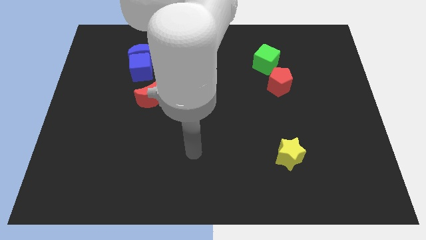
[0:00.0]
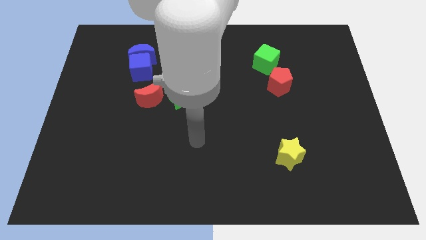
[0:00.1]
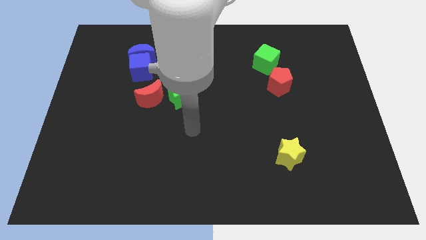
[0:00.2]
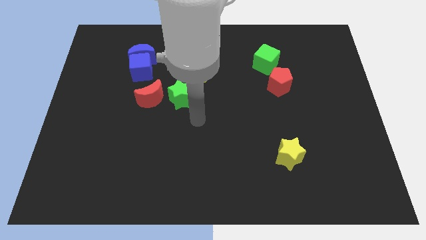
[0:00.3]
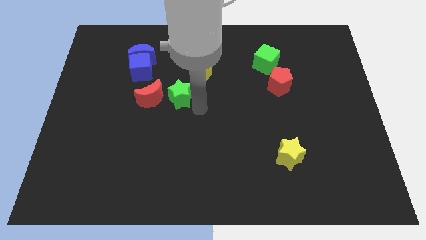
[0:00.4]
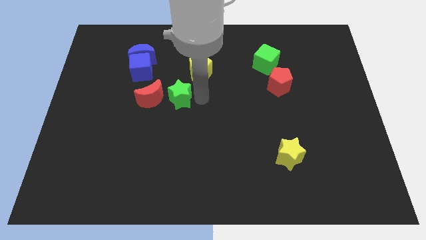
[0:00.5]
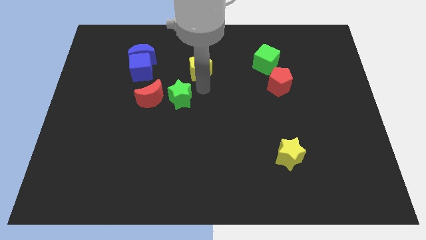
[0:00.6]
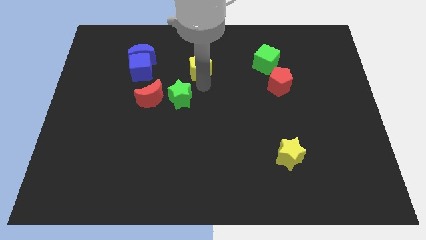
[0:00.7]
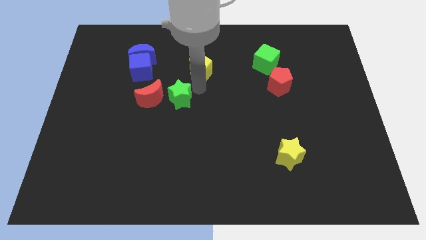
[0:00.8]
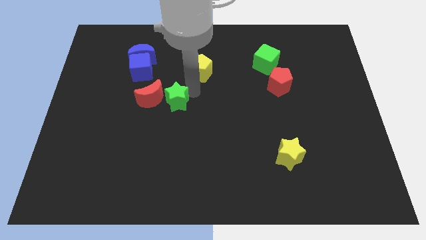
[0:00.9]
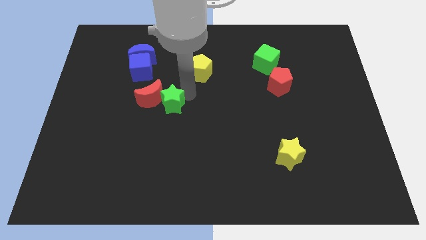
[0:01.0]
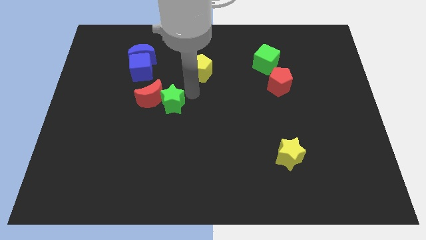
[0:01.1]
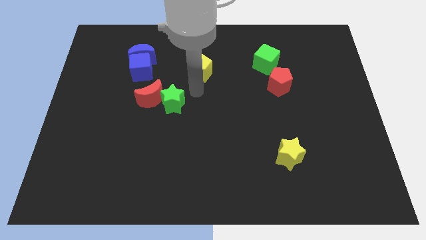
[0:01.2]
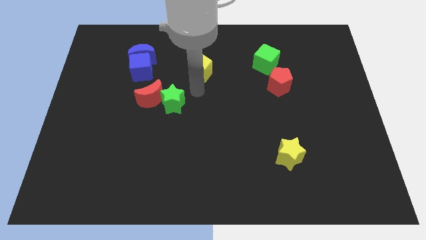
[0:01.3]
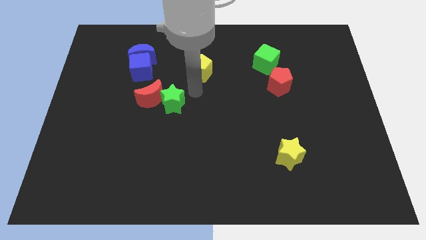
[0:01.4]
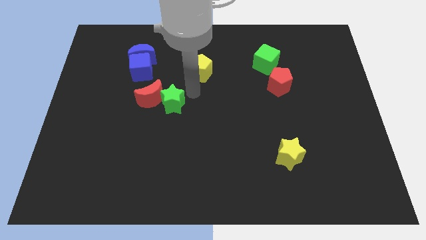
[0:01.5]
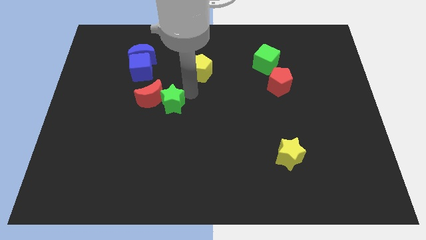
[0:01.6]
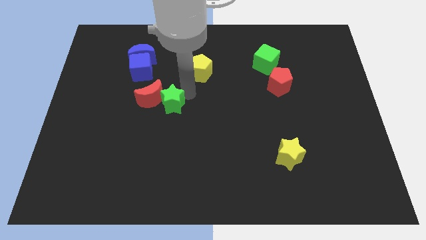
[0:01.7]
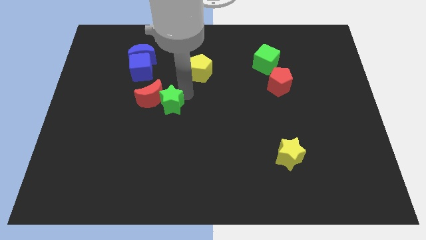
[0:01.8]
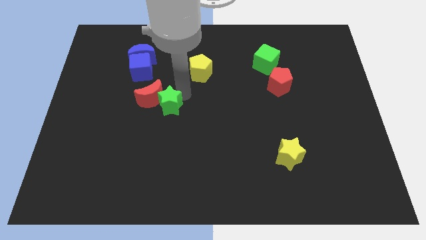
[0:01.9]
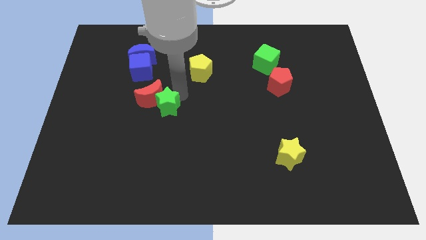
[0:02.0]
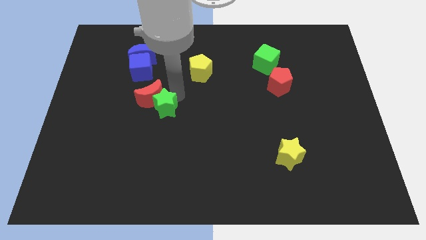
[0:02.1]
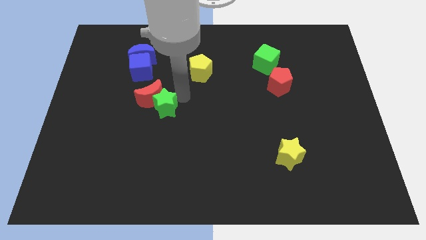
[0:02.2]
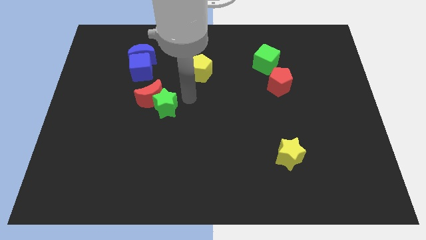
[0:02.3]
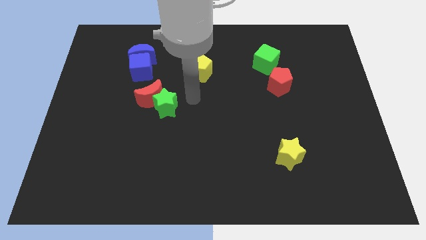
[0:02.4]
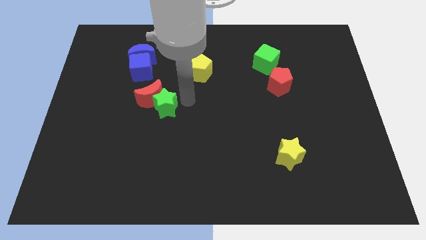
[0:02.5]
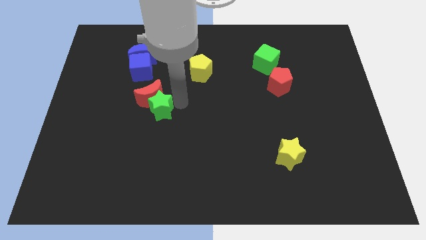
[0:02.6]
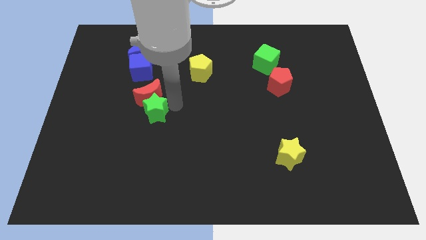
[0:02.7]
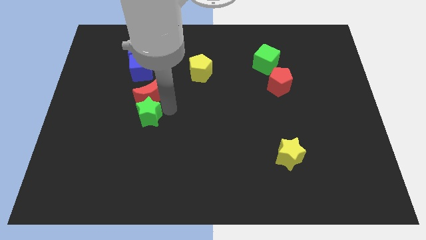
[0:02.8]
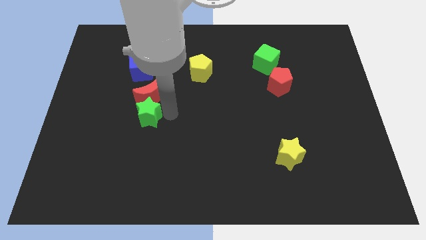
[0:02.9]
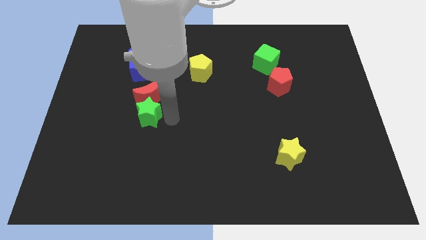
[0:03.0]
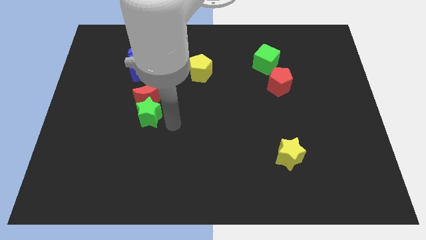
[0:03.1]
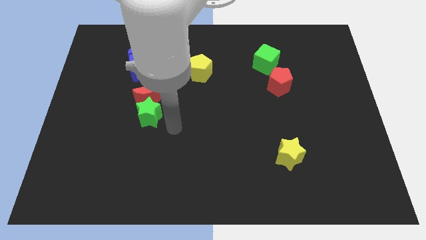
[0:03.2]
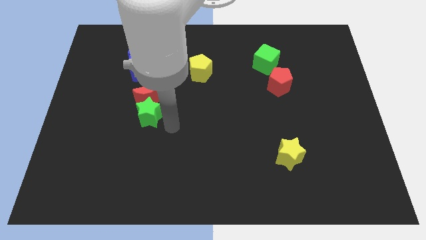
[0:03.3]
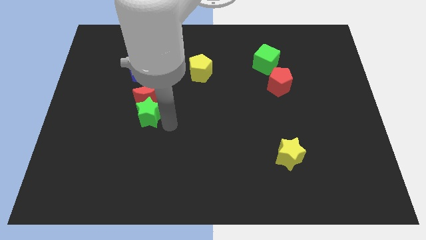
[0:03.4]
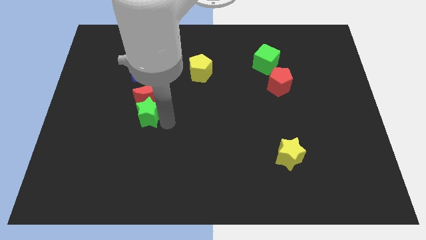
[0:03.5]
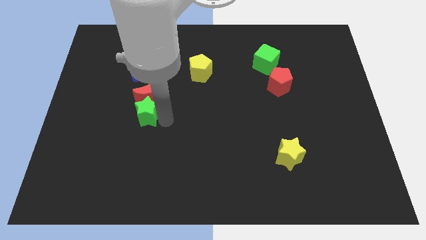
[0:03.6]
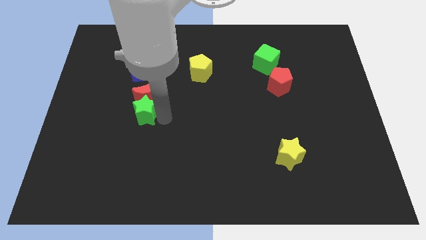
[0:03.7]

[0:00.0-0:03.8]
slide the green star to the left somewhat

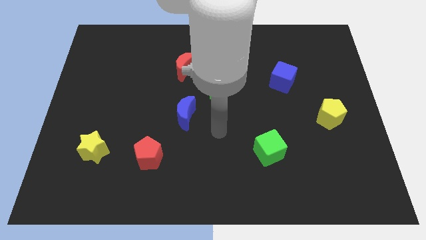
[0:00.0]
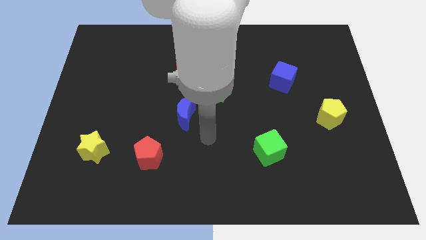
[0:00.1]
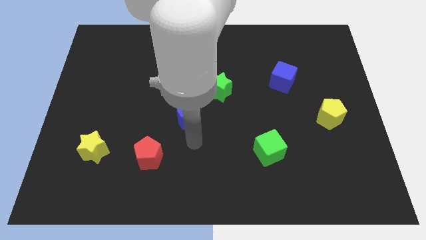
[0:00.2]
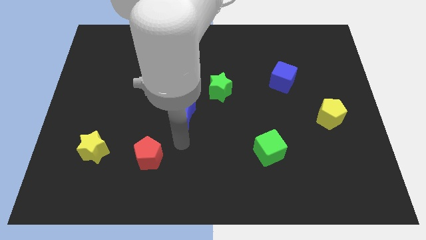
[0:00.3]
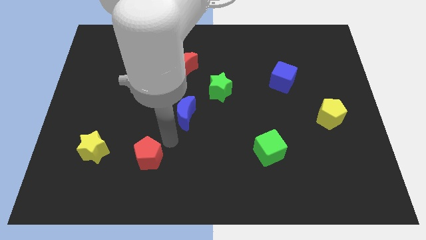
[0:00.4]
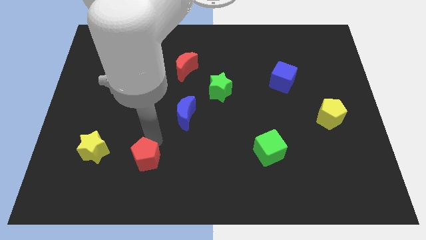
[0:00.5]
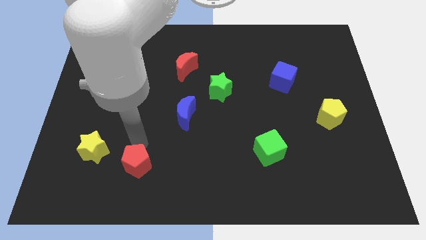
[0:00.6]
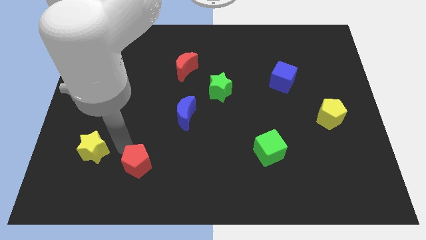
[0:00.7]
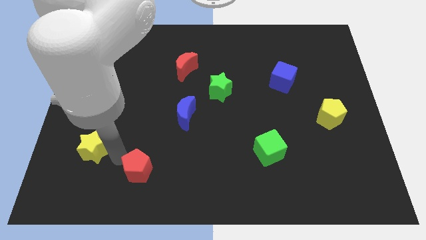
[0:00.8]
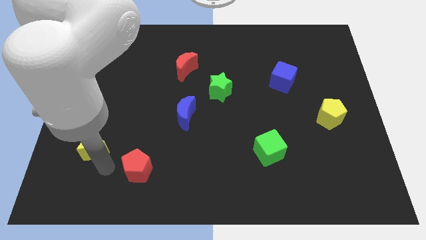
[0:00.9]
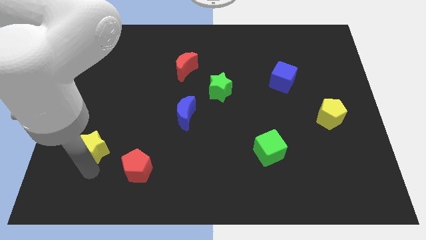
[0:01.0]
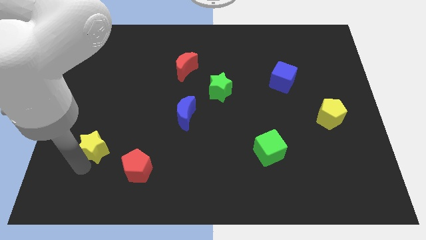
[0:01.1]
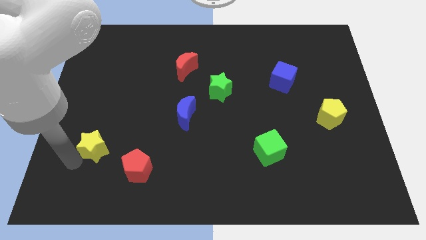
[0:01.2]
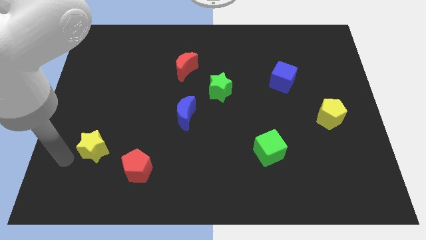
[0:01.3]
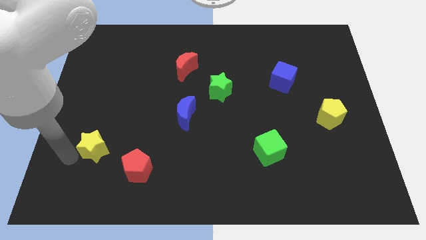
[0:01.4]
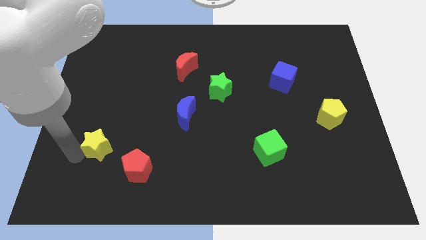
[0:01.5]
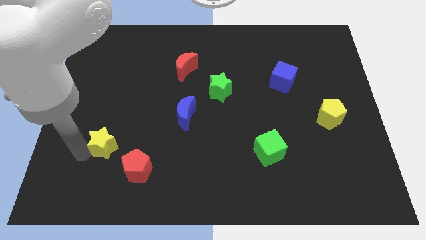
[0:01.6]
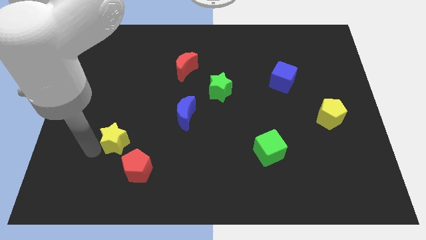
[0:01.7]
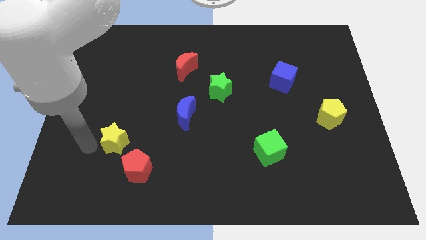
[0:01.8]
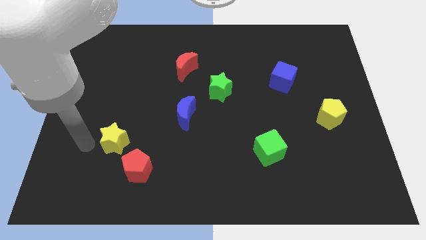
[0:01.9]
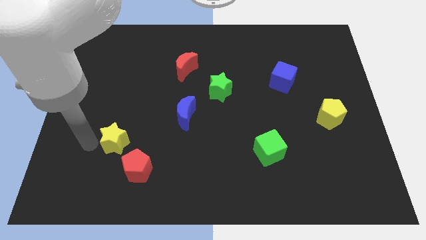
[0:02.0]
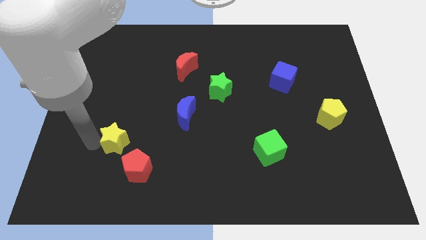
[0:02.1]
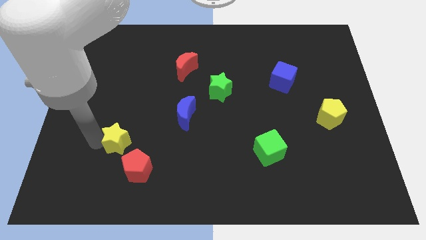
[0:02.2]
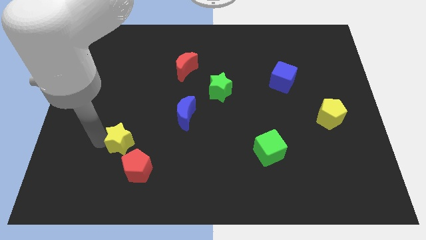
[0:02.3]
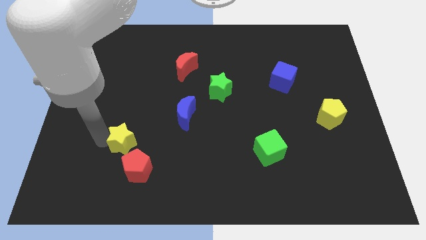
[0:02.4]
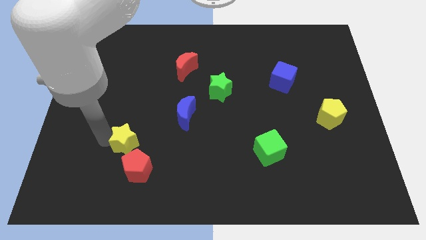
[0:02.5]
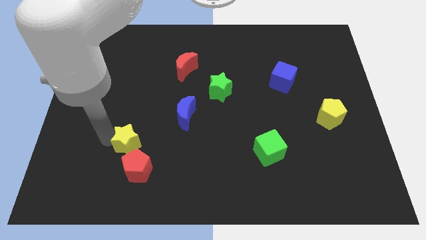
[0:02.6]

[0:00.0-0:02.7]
slide the yellow star right a little

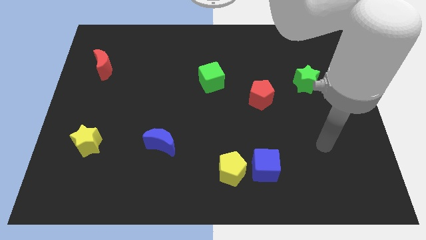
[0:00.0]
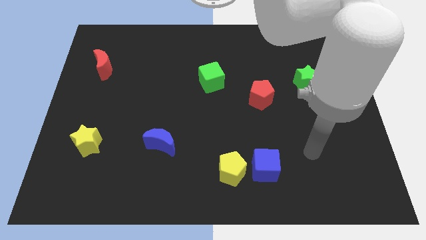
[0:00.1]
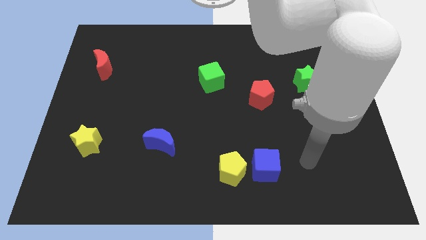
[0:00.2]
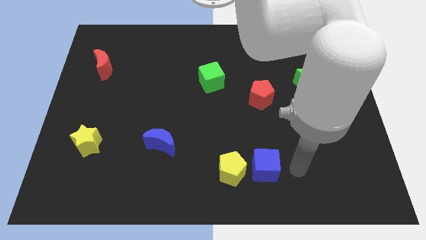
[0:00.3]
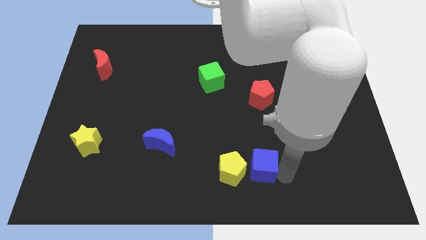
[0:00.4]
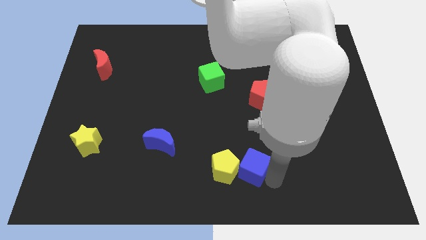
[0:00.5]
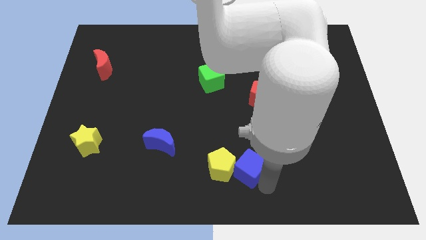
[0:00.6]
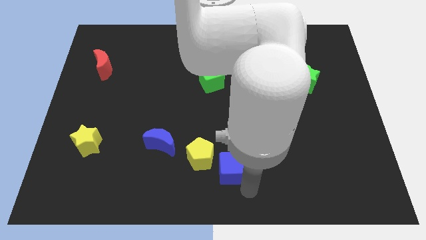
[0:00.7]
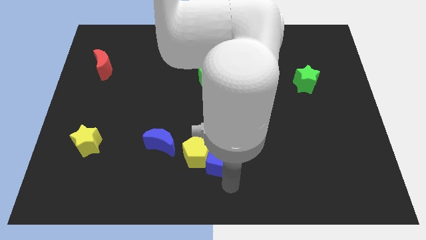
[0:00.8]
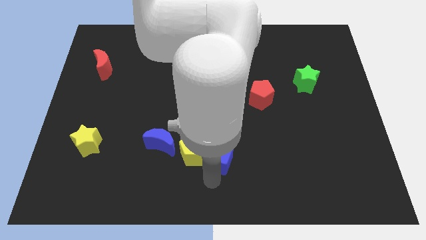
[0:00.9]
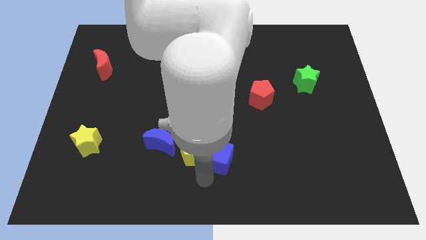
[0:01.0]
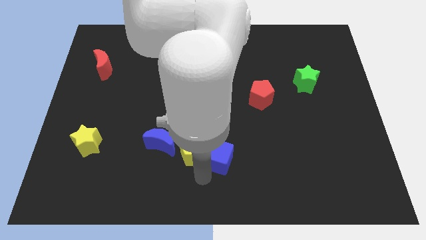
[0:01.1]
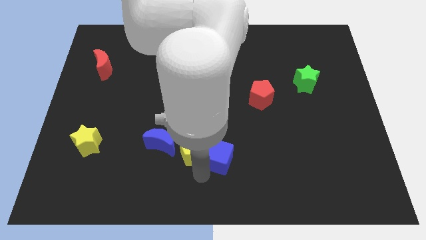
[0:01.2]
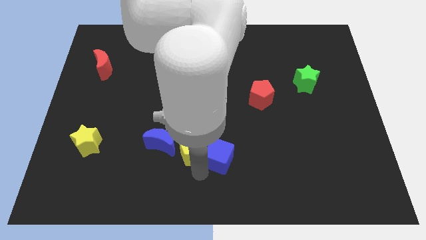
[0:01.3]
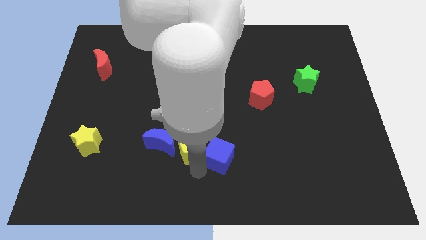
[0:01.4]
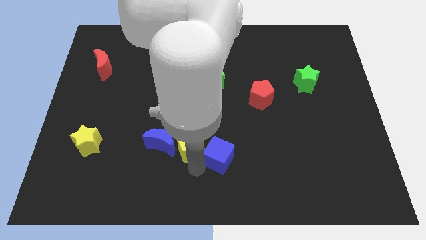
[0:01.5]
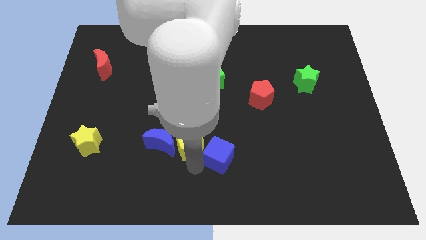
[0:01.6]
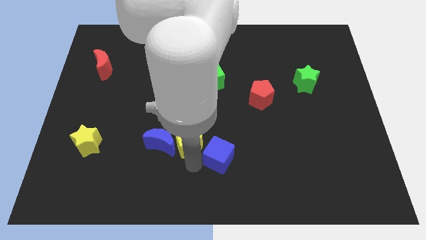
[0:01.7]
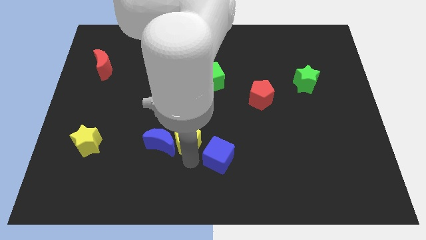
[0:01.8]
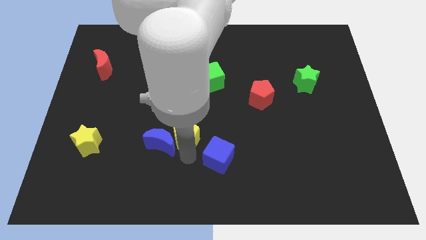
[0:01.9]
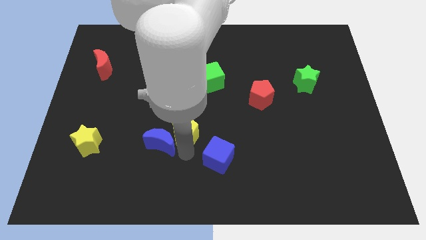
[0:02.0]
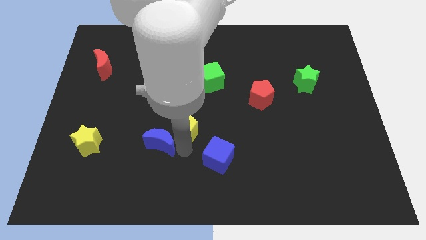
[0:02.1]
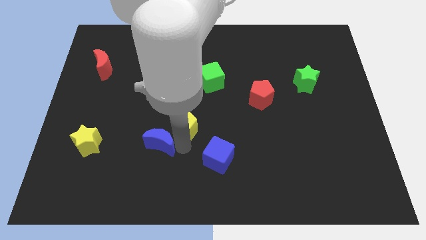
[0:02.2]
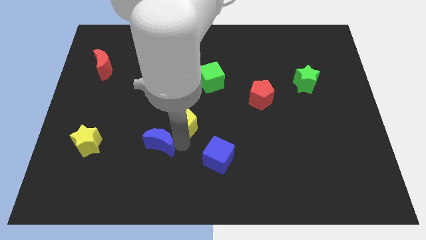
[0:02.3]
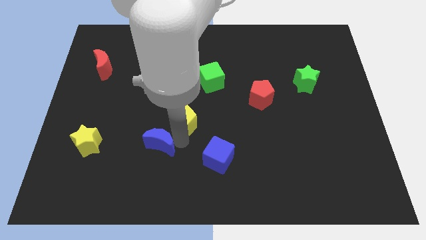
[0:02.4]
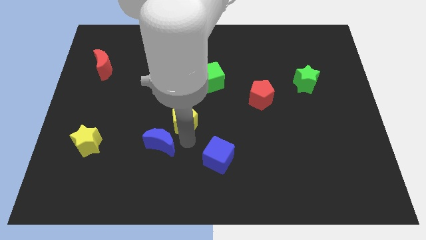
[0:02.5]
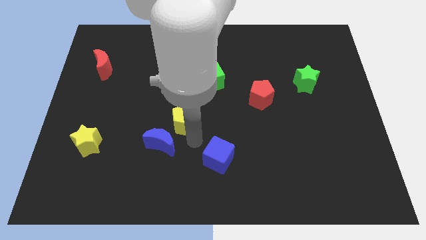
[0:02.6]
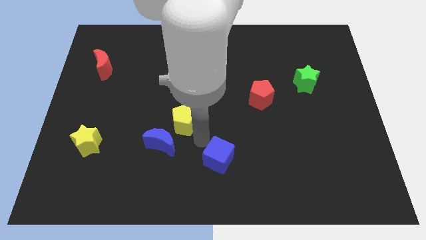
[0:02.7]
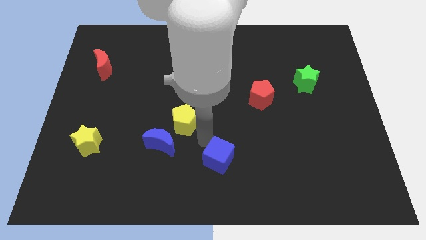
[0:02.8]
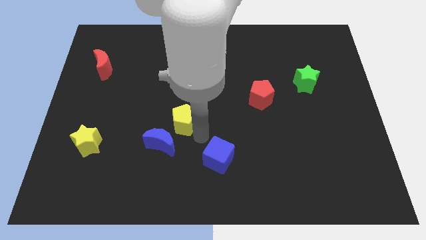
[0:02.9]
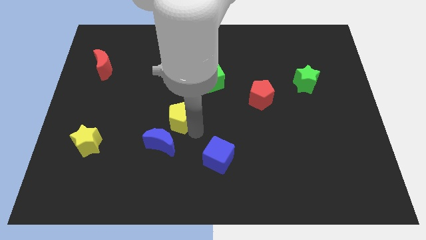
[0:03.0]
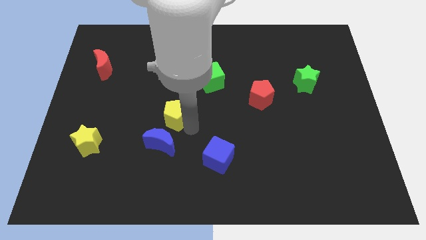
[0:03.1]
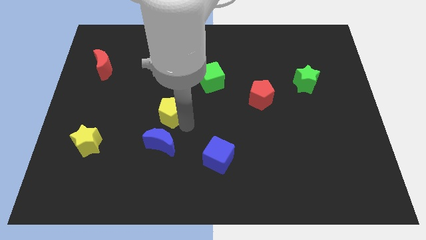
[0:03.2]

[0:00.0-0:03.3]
push the yellow pentagon up and to the left
